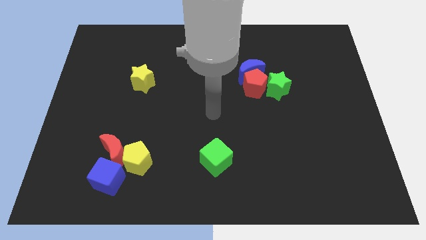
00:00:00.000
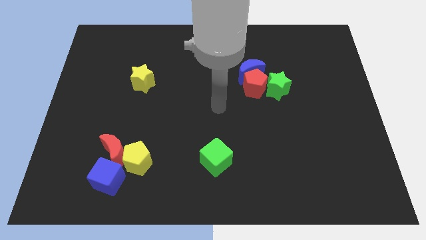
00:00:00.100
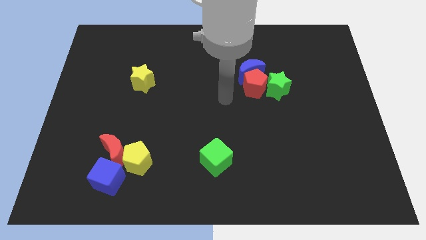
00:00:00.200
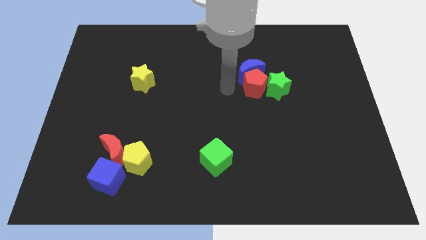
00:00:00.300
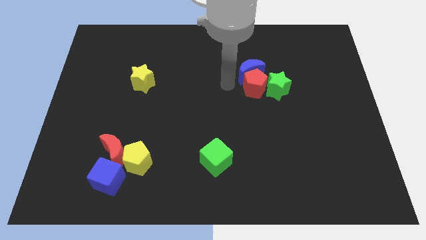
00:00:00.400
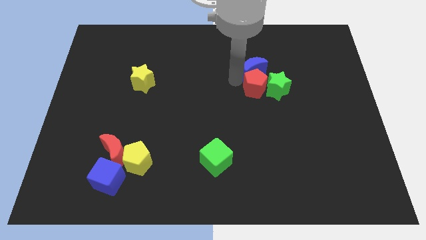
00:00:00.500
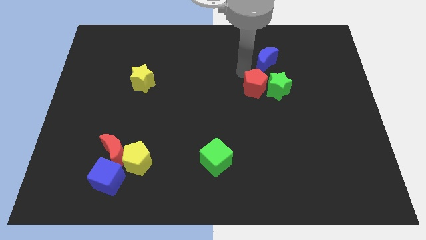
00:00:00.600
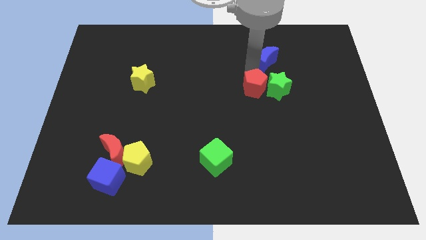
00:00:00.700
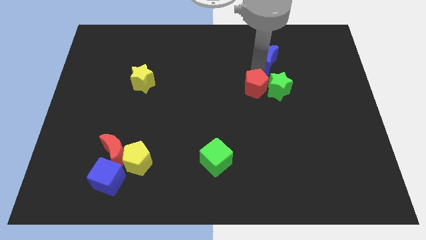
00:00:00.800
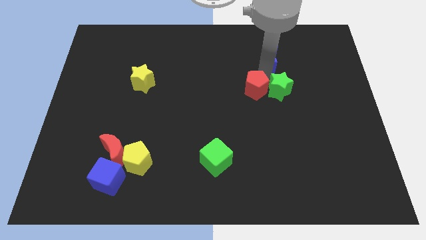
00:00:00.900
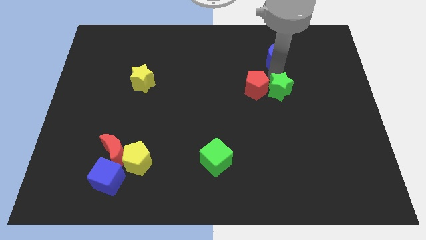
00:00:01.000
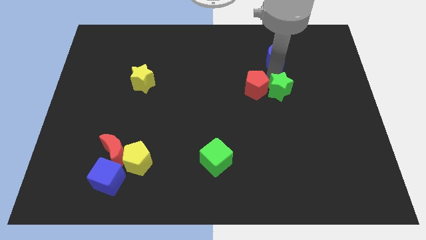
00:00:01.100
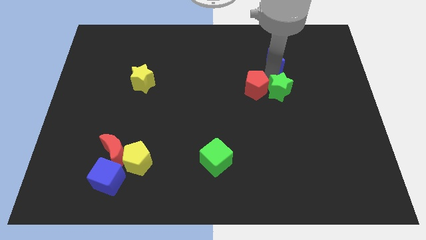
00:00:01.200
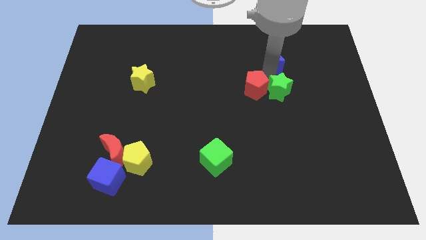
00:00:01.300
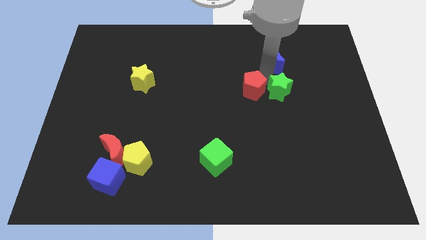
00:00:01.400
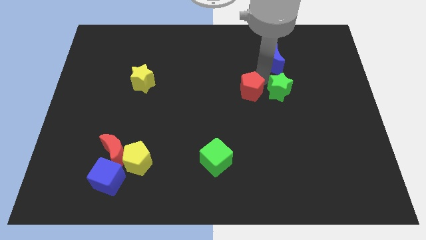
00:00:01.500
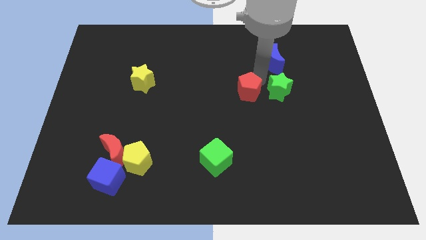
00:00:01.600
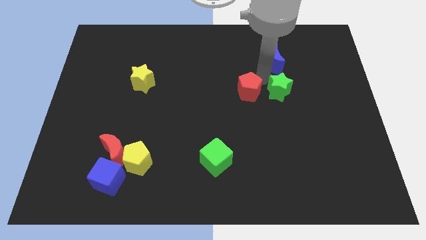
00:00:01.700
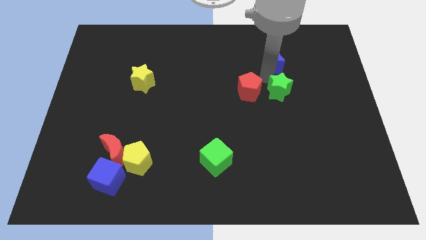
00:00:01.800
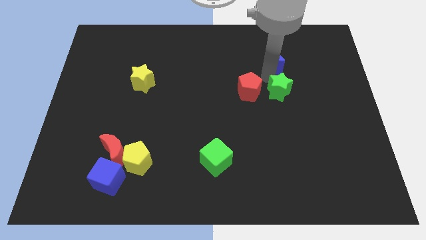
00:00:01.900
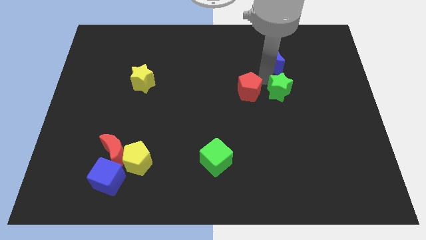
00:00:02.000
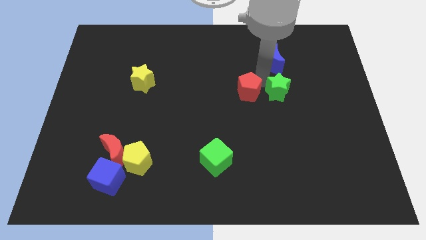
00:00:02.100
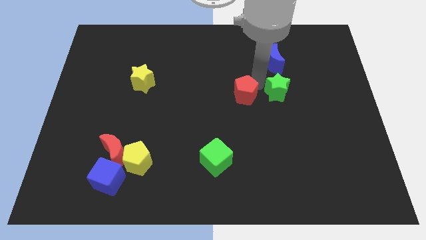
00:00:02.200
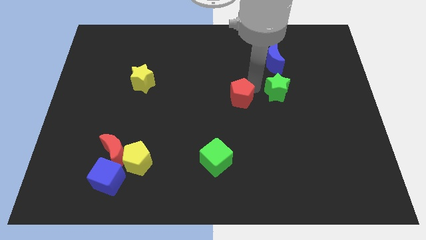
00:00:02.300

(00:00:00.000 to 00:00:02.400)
pull the red pentagon apart from the blue moon and green star

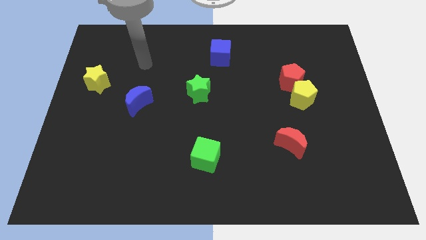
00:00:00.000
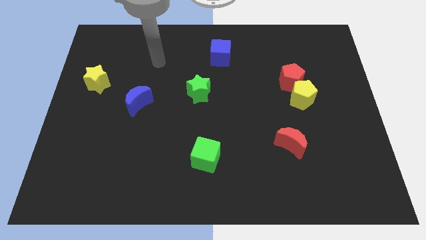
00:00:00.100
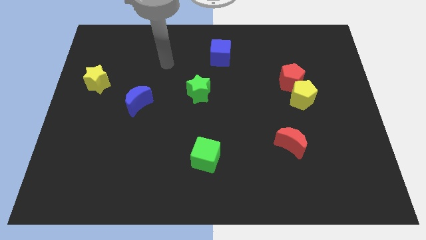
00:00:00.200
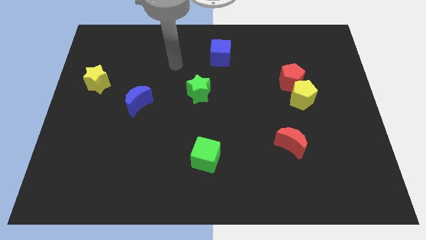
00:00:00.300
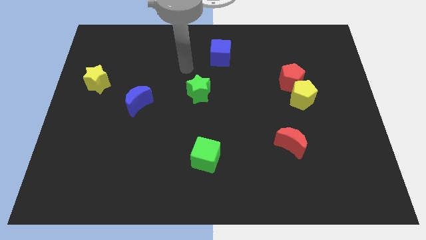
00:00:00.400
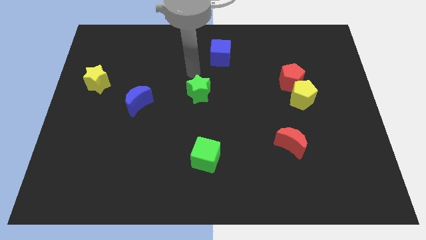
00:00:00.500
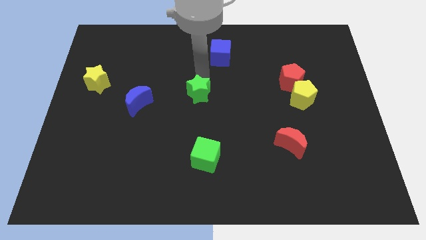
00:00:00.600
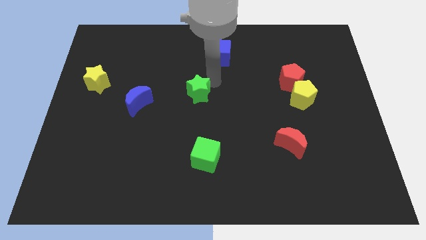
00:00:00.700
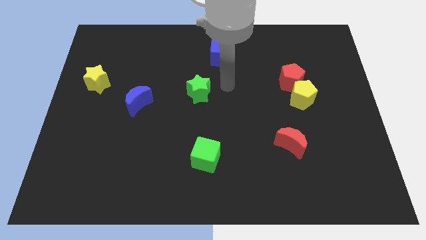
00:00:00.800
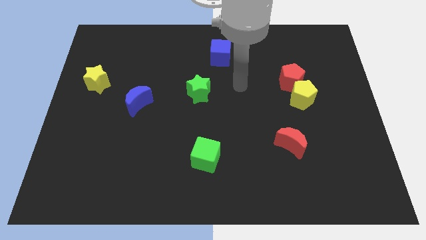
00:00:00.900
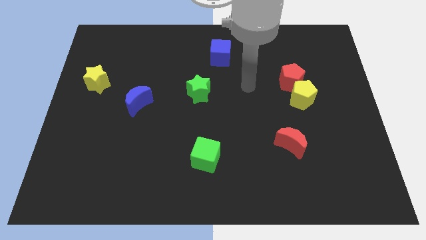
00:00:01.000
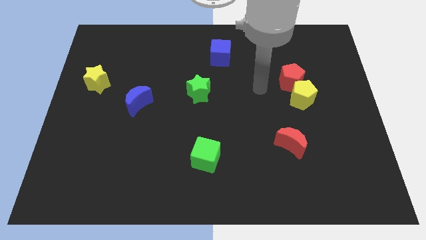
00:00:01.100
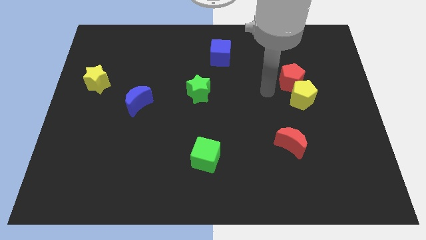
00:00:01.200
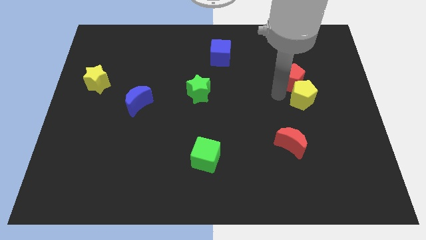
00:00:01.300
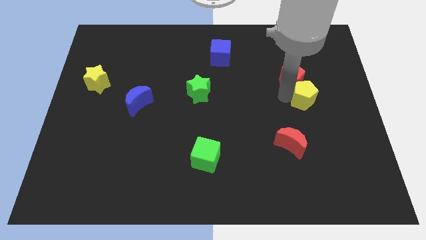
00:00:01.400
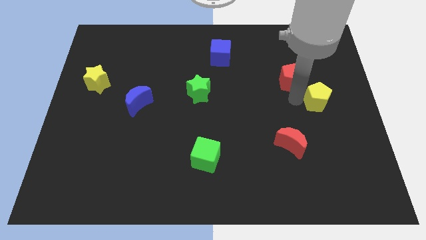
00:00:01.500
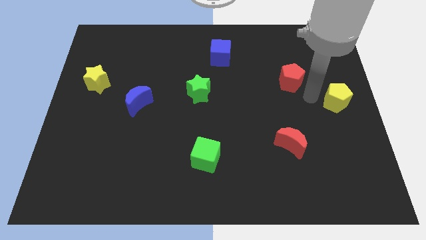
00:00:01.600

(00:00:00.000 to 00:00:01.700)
move the red pentagon away from the yellow pentagon

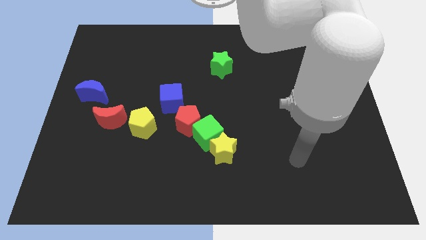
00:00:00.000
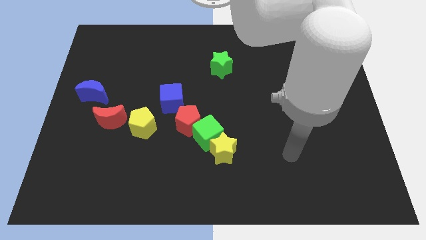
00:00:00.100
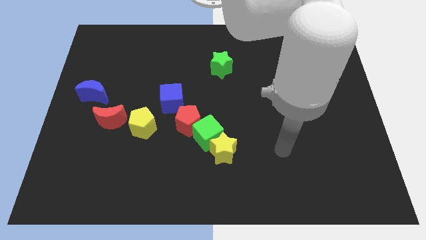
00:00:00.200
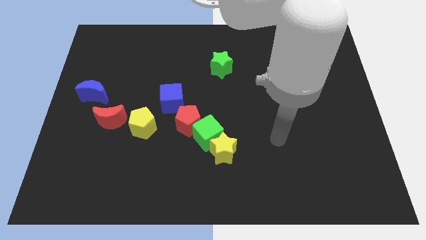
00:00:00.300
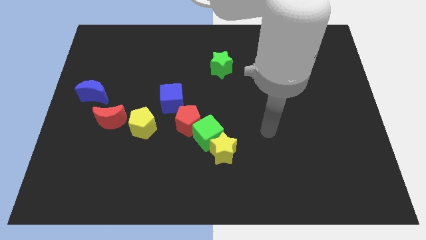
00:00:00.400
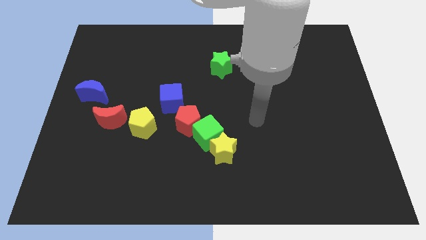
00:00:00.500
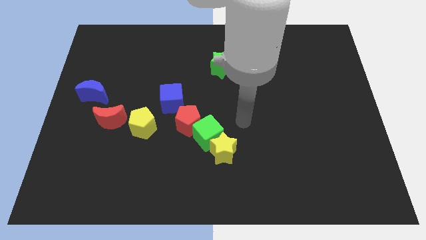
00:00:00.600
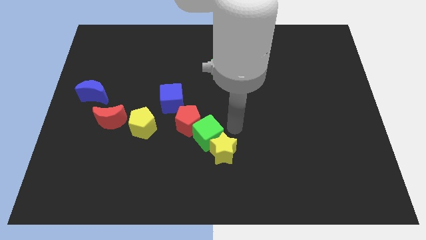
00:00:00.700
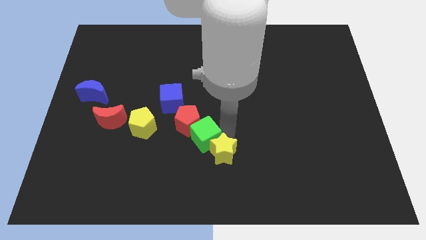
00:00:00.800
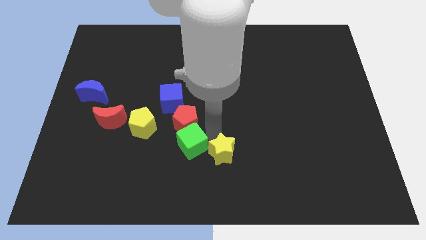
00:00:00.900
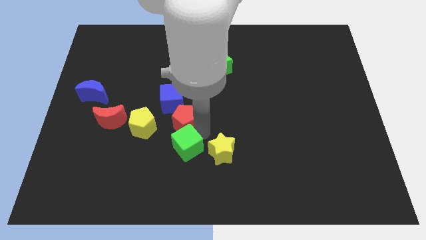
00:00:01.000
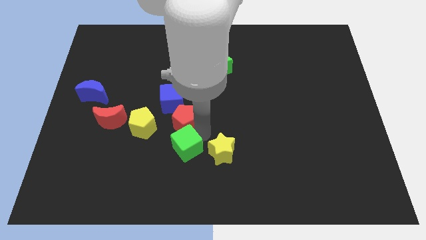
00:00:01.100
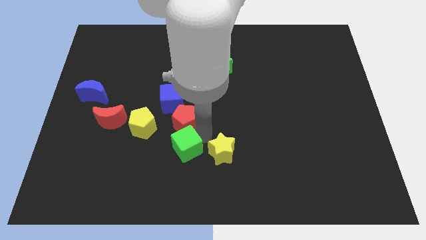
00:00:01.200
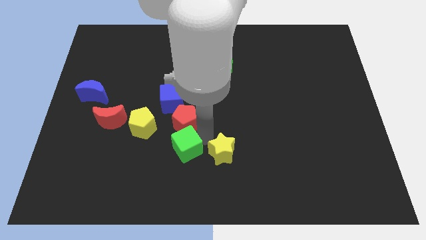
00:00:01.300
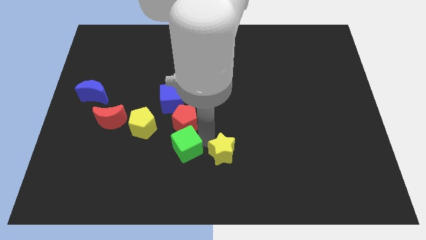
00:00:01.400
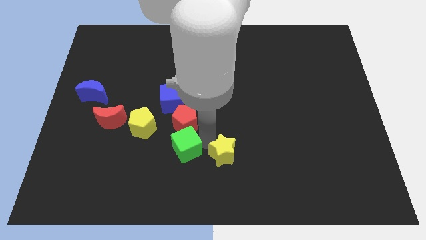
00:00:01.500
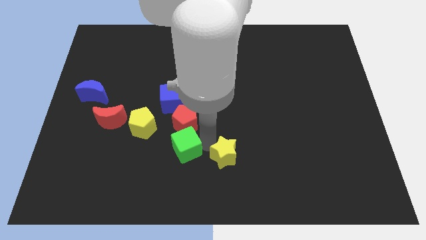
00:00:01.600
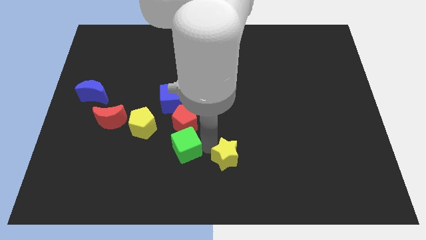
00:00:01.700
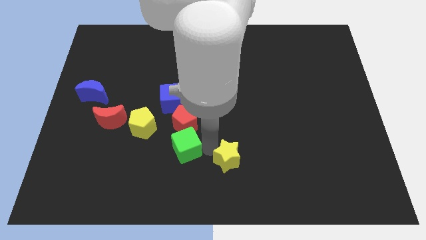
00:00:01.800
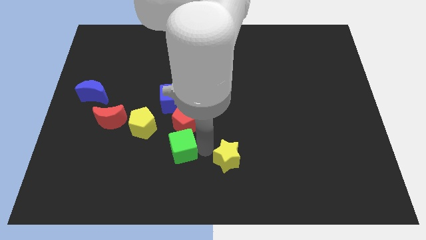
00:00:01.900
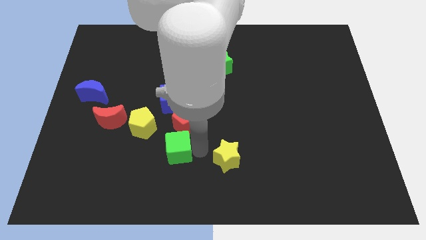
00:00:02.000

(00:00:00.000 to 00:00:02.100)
pull the yellow star apart from the green cube

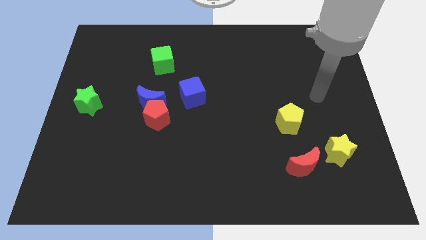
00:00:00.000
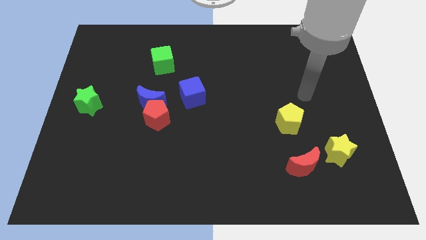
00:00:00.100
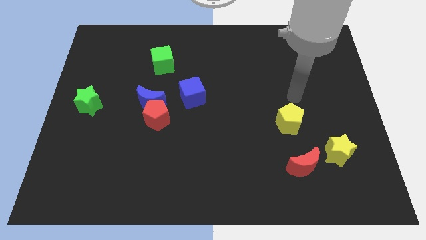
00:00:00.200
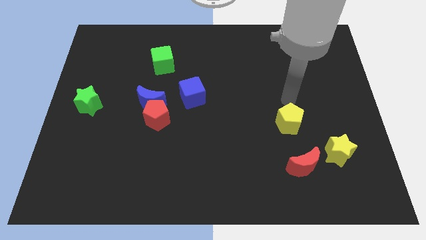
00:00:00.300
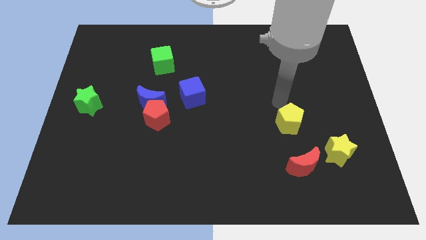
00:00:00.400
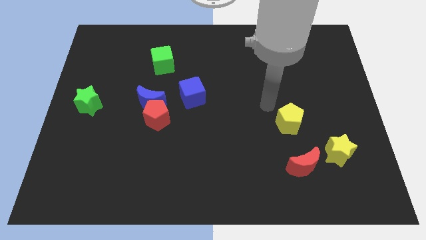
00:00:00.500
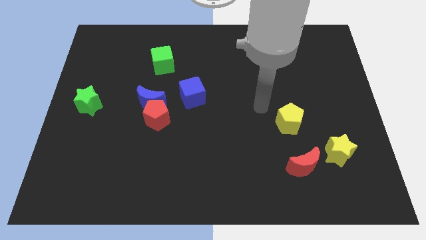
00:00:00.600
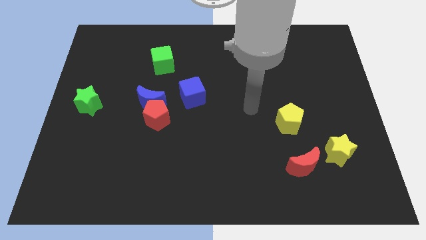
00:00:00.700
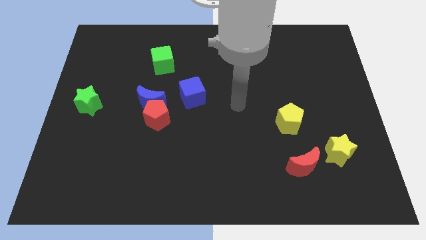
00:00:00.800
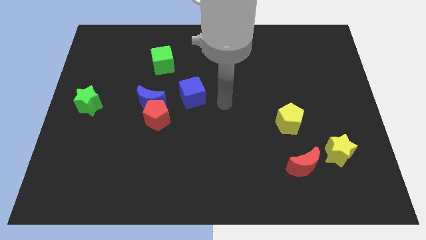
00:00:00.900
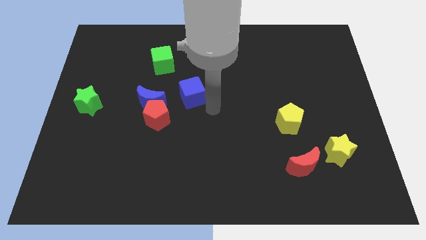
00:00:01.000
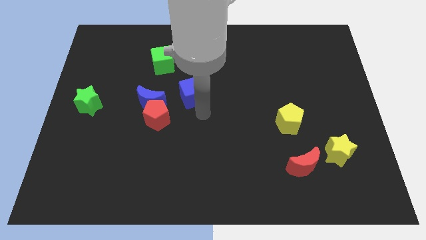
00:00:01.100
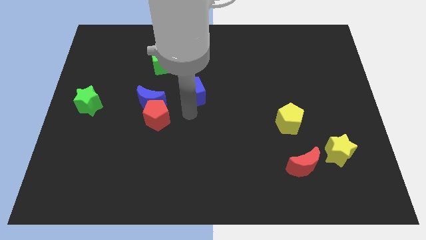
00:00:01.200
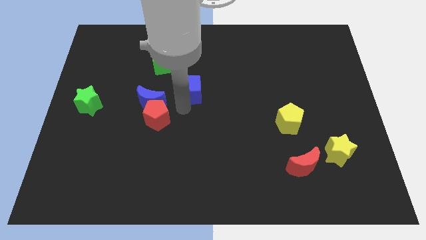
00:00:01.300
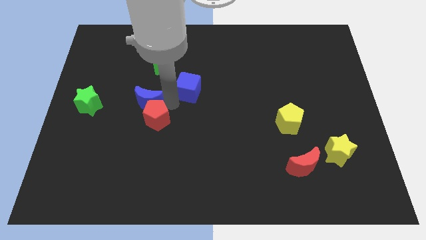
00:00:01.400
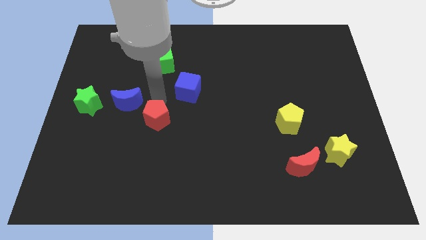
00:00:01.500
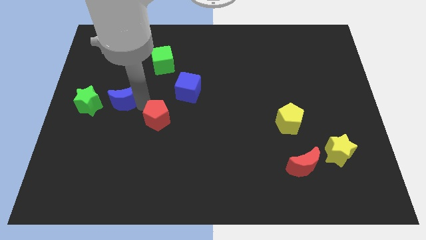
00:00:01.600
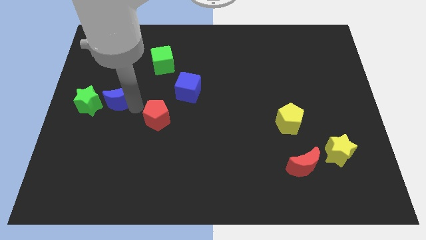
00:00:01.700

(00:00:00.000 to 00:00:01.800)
separate the red pentagon from the blue moon

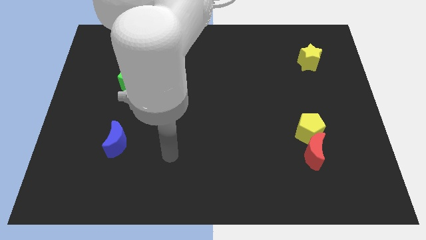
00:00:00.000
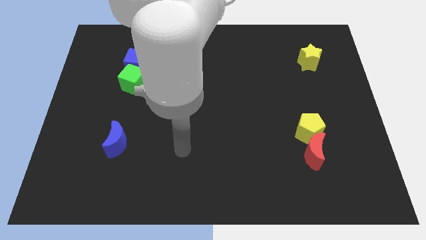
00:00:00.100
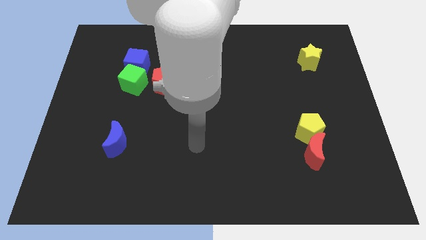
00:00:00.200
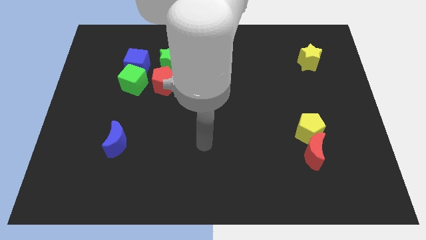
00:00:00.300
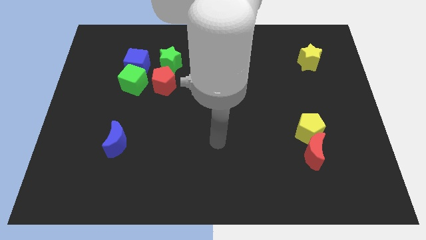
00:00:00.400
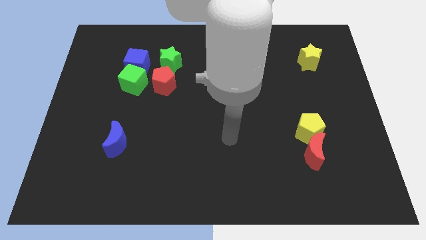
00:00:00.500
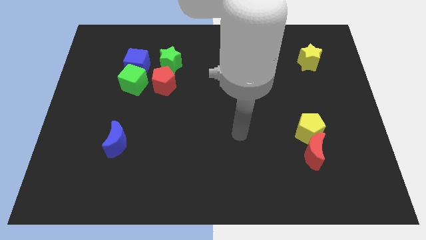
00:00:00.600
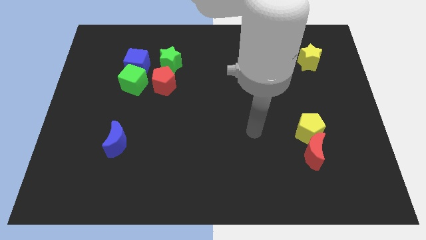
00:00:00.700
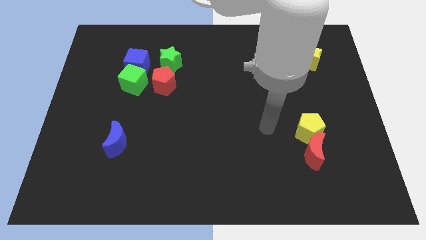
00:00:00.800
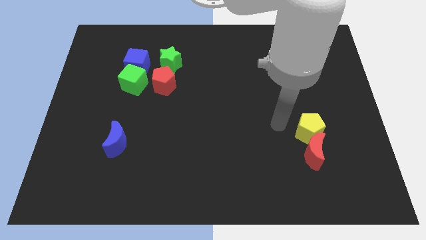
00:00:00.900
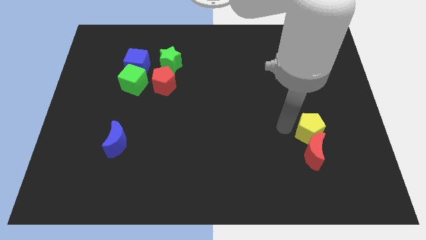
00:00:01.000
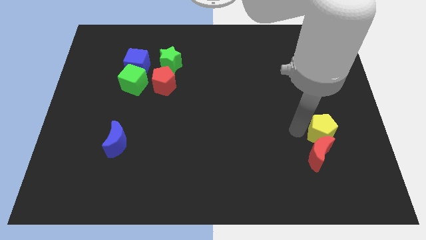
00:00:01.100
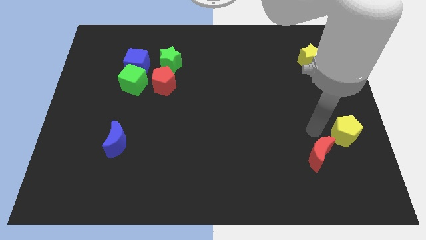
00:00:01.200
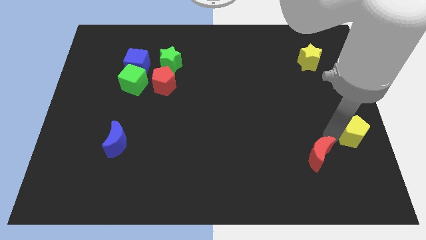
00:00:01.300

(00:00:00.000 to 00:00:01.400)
pull the red moon apart from the yellow pentagon
